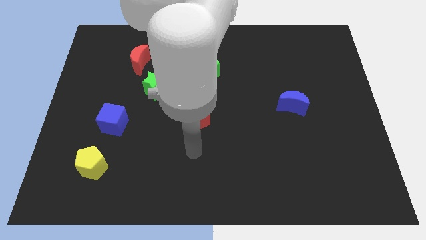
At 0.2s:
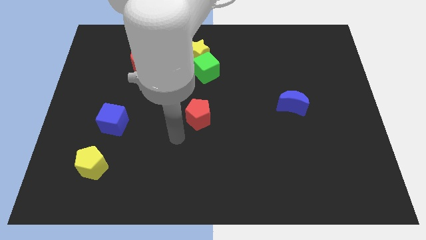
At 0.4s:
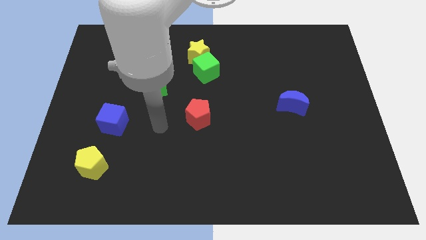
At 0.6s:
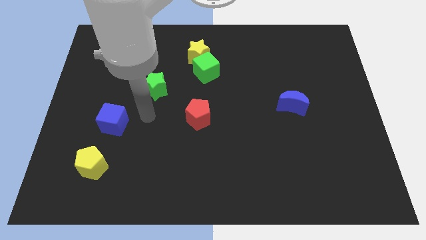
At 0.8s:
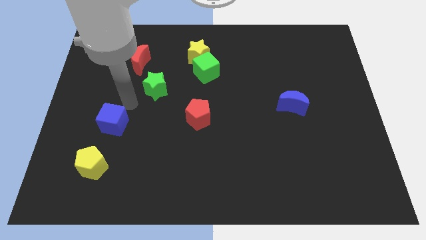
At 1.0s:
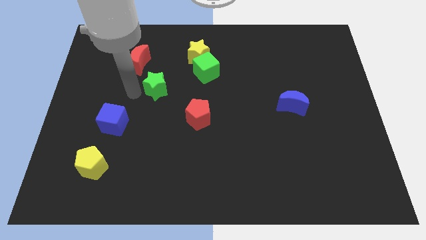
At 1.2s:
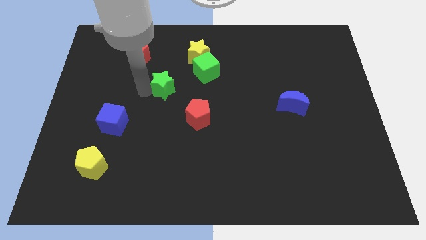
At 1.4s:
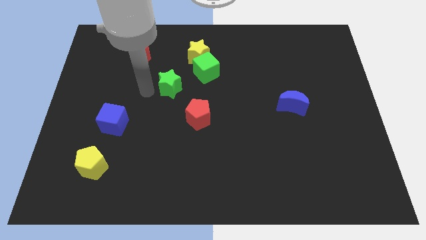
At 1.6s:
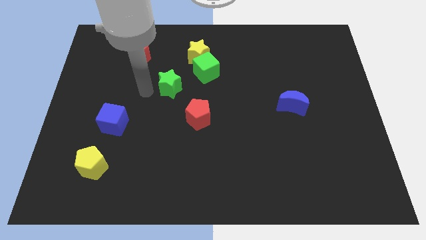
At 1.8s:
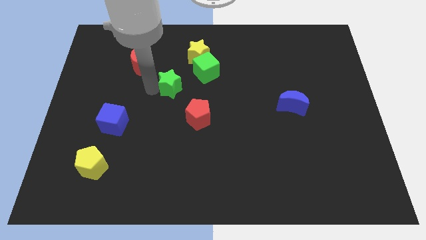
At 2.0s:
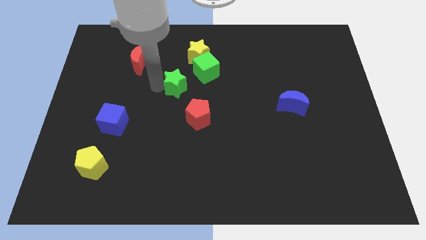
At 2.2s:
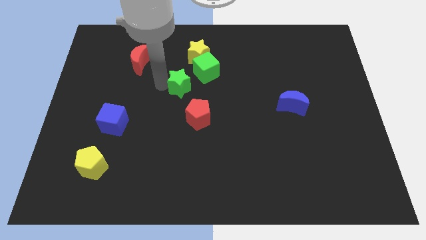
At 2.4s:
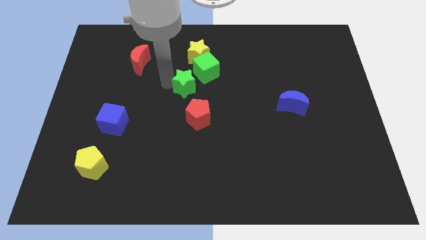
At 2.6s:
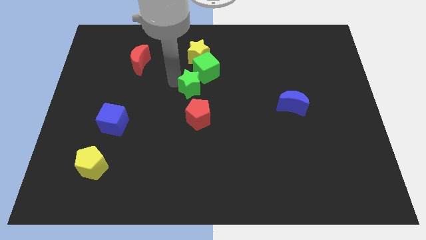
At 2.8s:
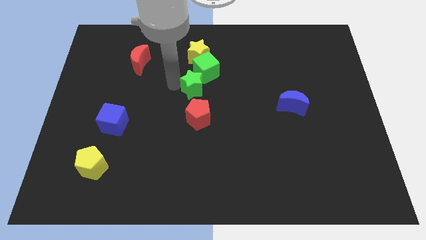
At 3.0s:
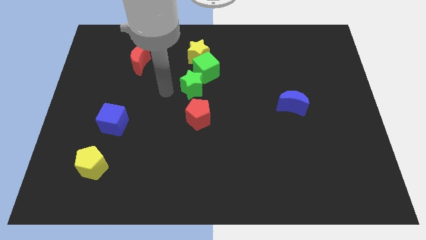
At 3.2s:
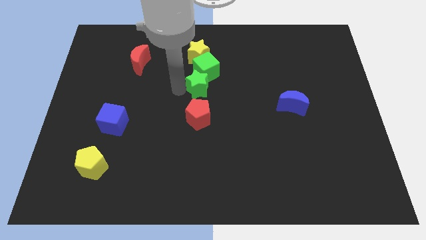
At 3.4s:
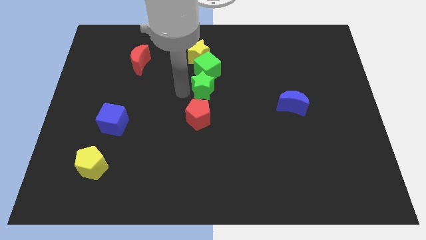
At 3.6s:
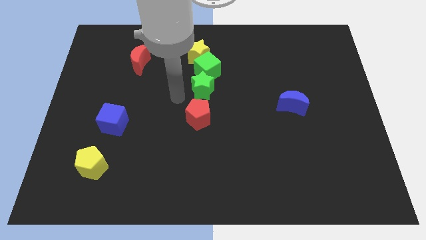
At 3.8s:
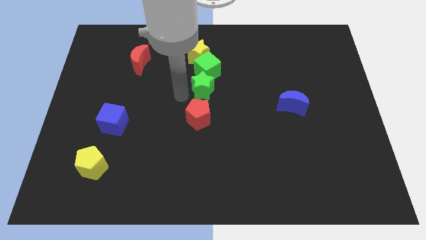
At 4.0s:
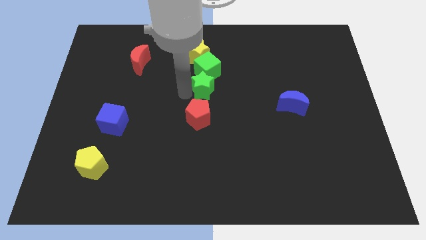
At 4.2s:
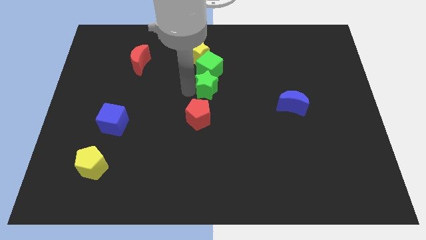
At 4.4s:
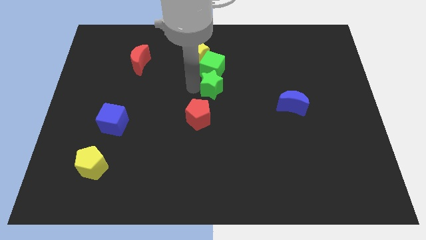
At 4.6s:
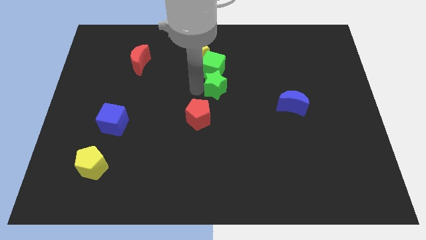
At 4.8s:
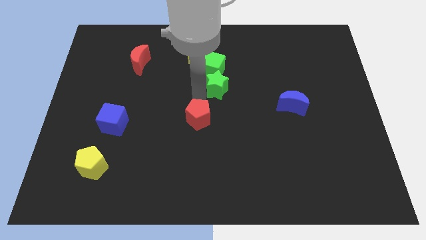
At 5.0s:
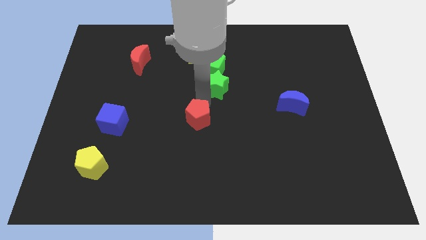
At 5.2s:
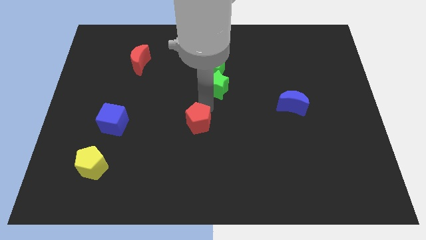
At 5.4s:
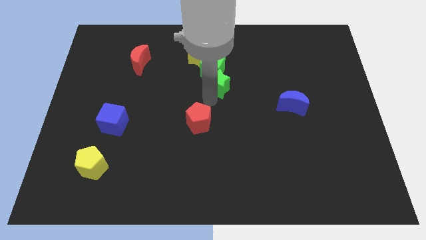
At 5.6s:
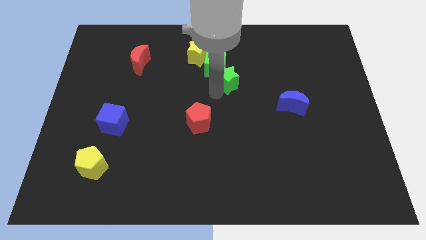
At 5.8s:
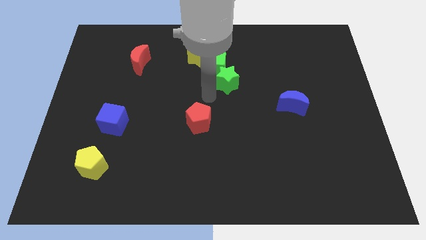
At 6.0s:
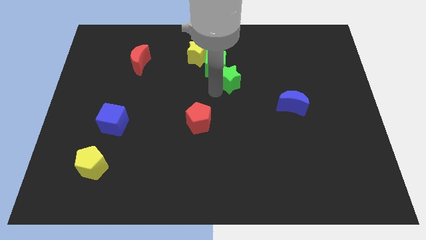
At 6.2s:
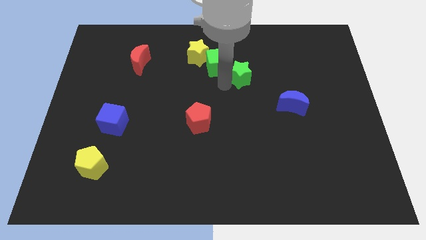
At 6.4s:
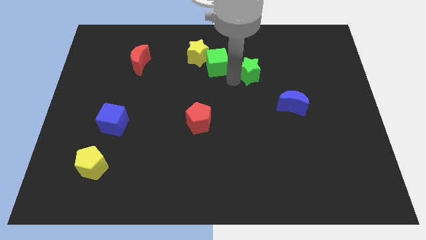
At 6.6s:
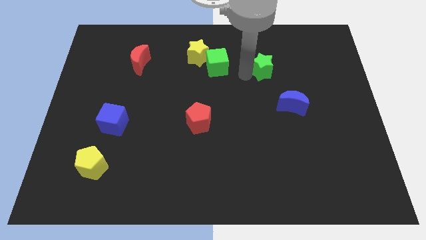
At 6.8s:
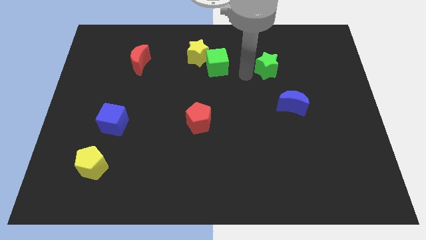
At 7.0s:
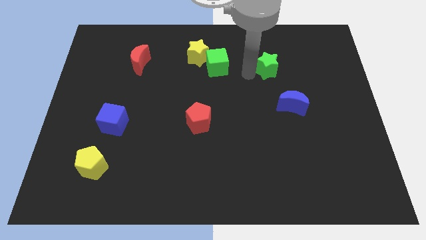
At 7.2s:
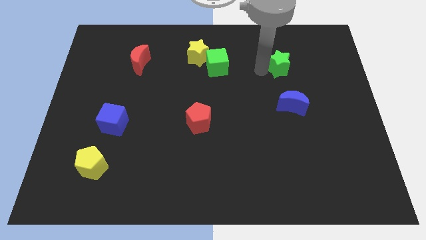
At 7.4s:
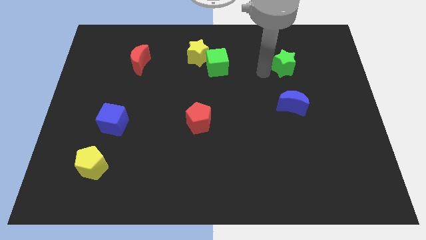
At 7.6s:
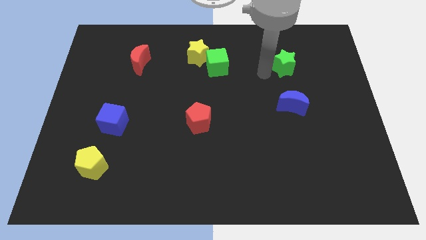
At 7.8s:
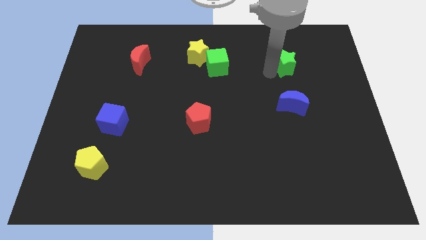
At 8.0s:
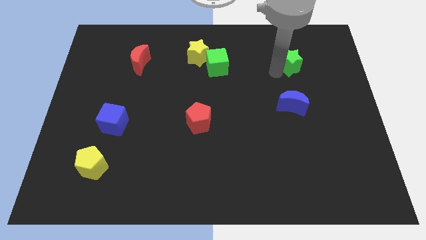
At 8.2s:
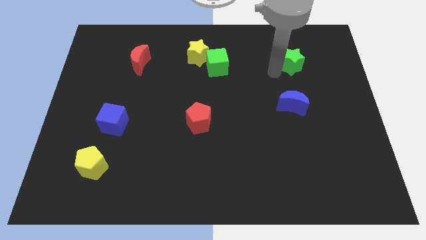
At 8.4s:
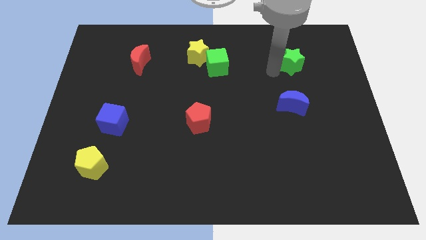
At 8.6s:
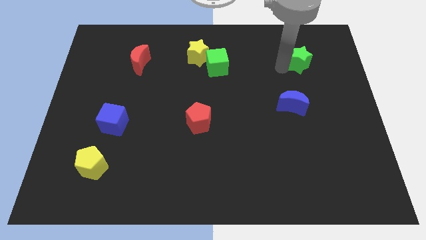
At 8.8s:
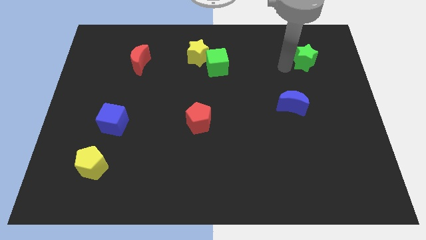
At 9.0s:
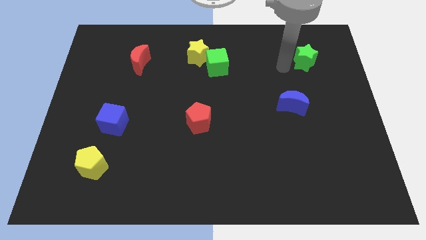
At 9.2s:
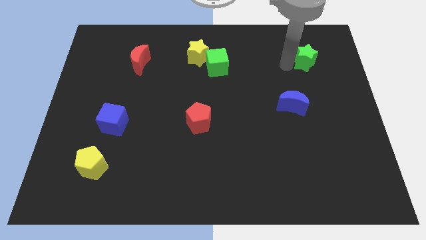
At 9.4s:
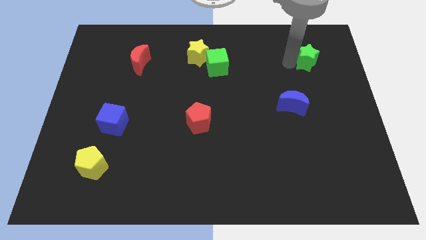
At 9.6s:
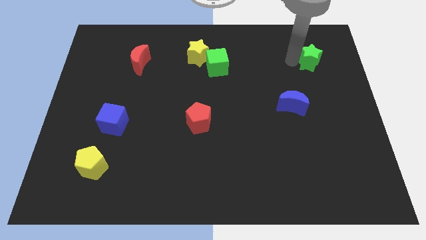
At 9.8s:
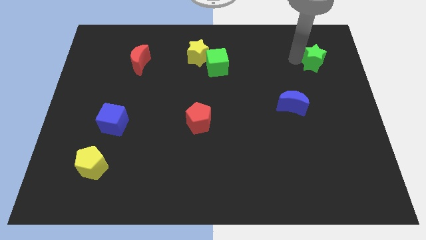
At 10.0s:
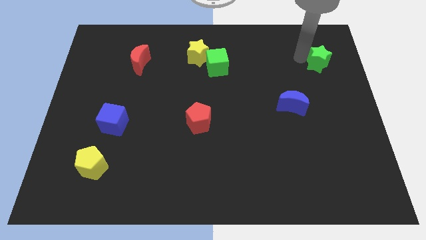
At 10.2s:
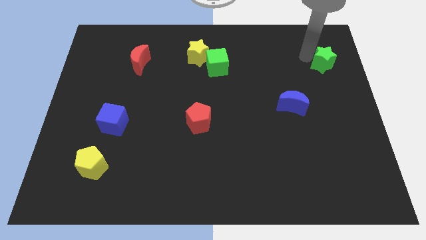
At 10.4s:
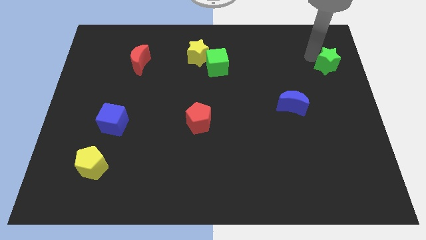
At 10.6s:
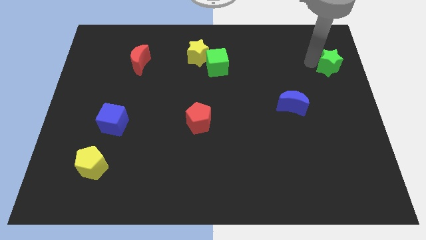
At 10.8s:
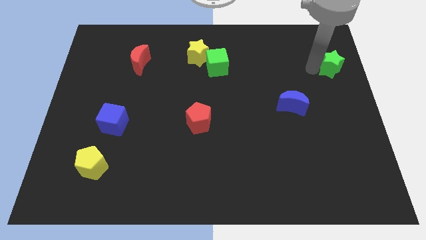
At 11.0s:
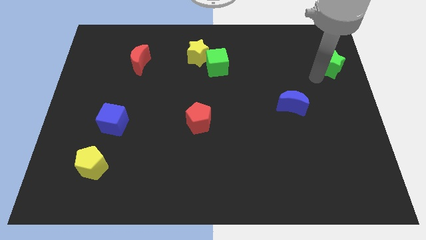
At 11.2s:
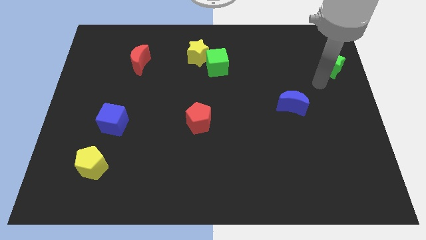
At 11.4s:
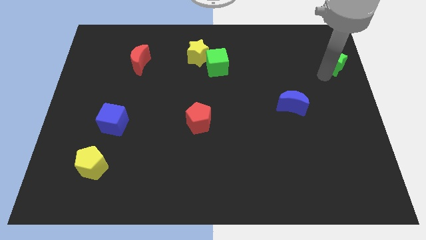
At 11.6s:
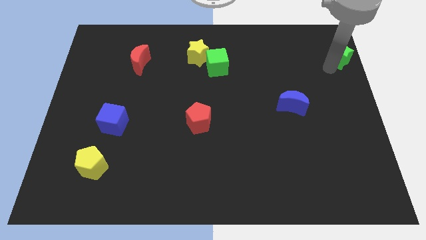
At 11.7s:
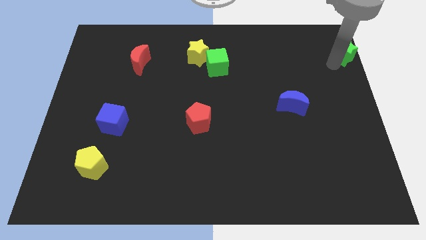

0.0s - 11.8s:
move the green star to the top right corner
